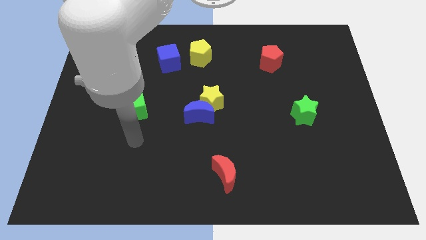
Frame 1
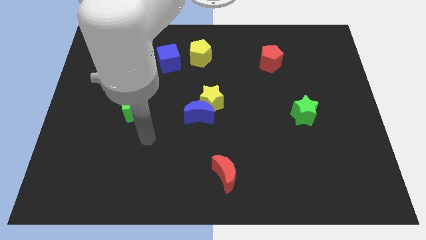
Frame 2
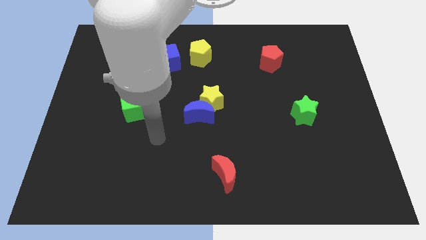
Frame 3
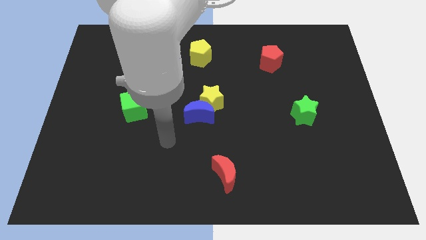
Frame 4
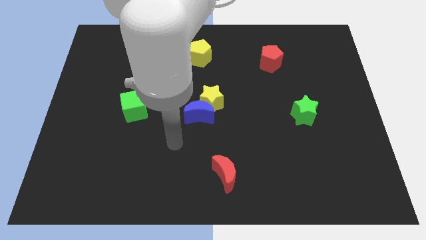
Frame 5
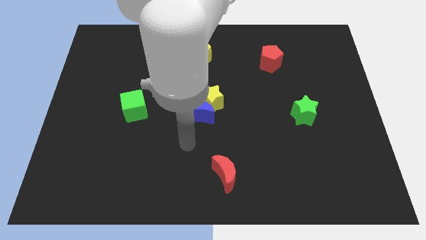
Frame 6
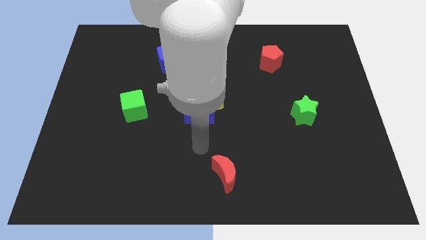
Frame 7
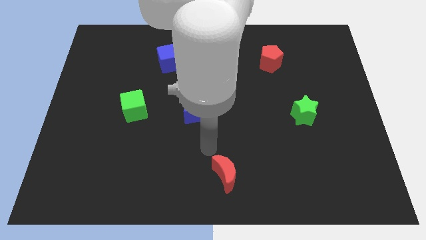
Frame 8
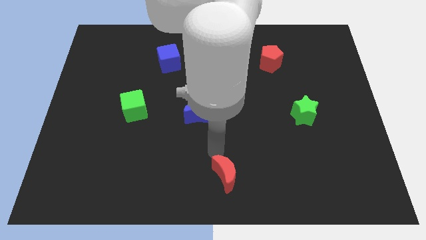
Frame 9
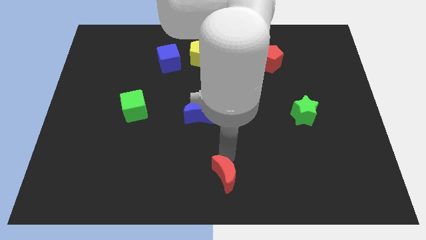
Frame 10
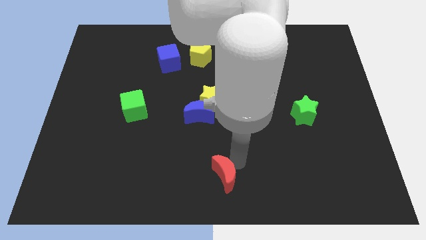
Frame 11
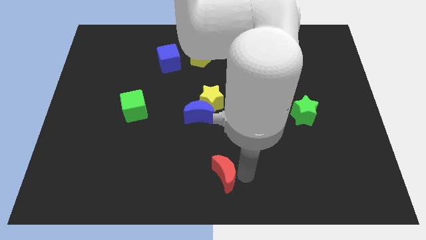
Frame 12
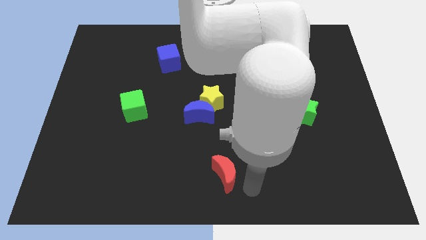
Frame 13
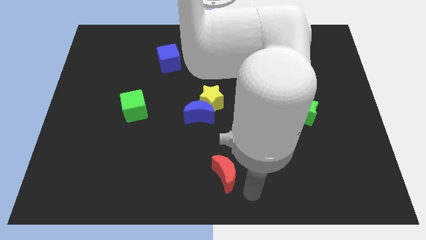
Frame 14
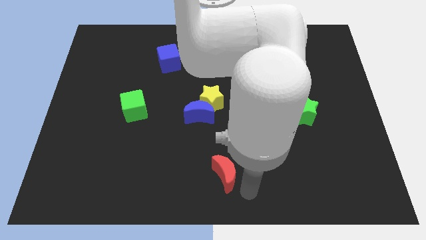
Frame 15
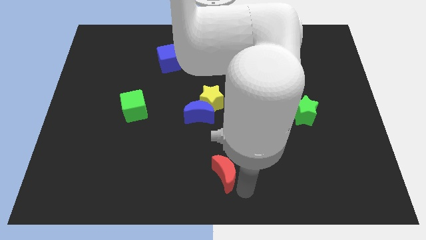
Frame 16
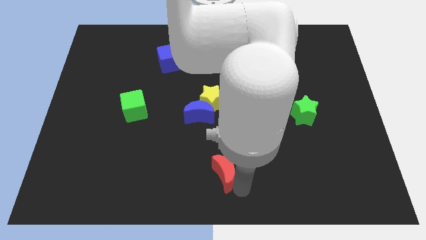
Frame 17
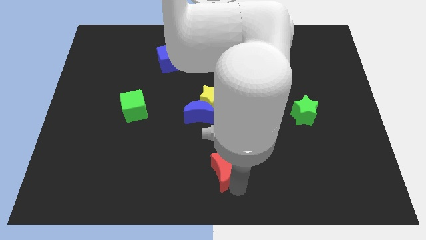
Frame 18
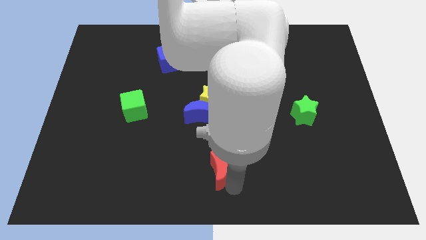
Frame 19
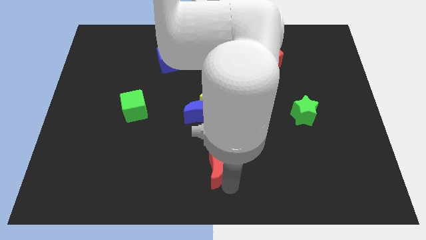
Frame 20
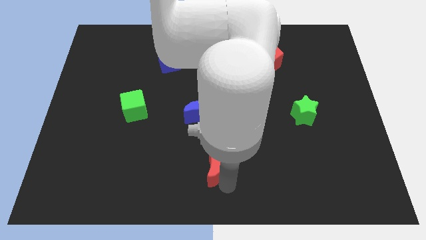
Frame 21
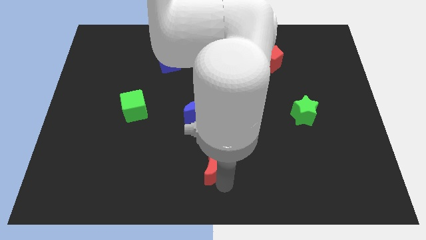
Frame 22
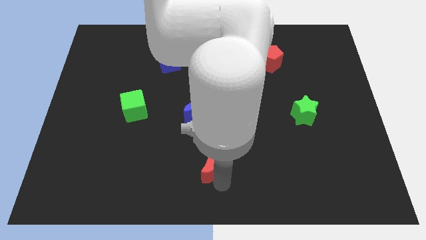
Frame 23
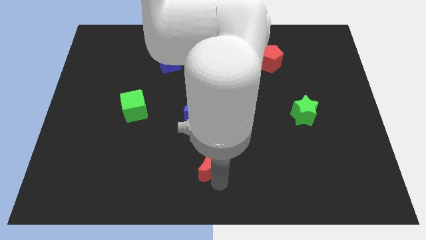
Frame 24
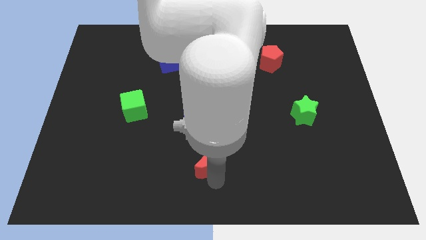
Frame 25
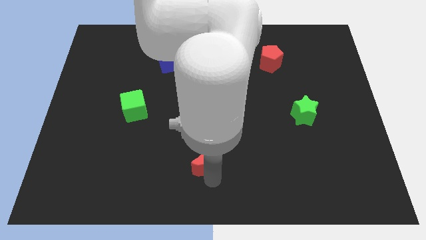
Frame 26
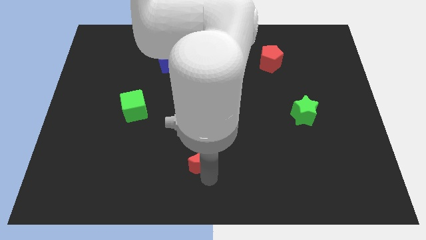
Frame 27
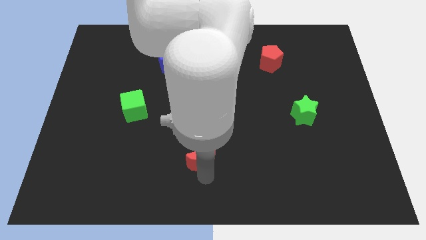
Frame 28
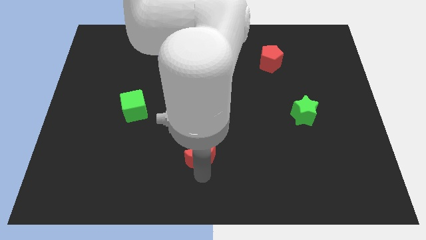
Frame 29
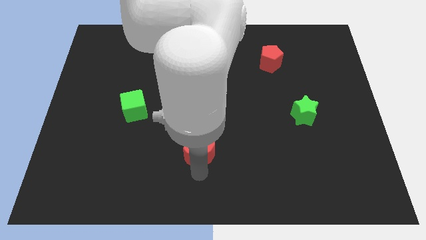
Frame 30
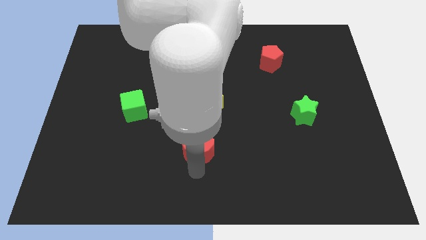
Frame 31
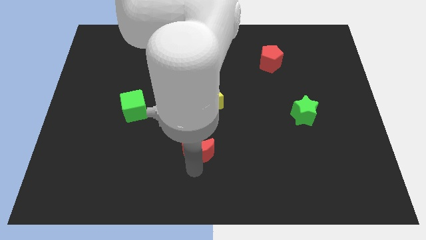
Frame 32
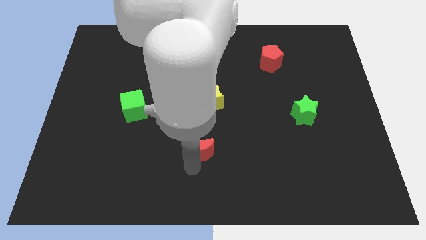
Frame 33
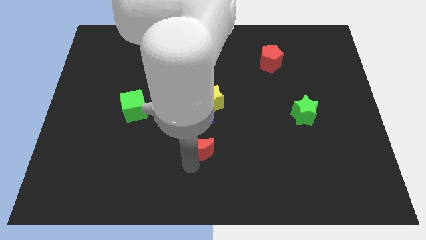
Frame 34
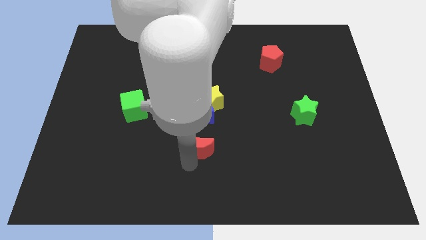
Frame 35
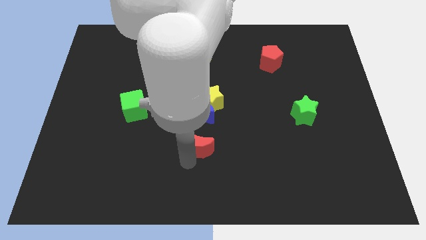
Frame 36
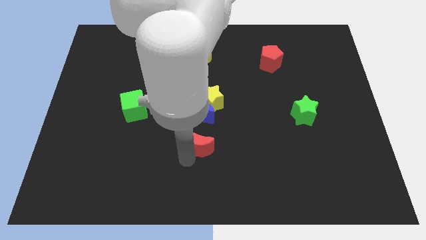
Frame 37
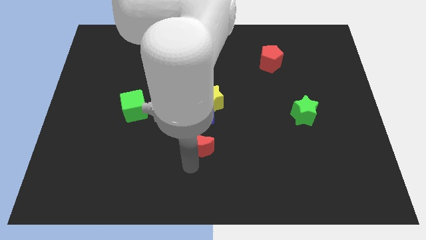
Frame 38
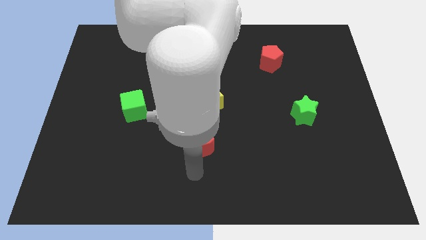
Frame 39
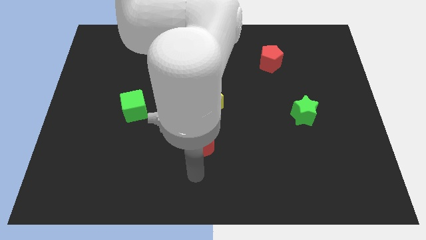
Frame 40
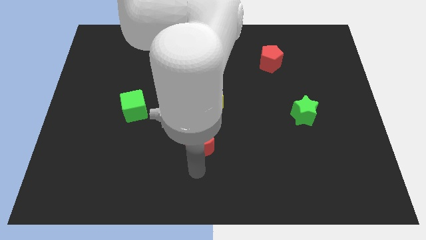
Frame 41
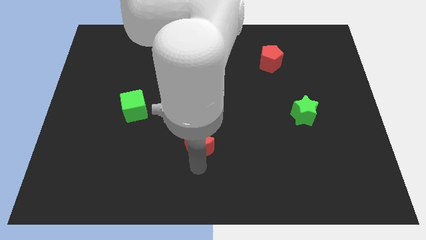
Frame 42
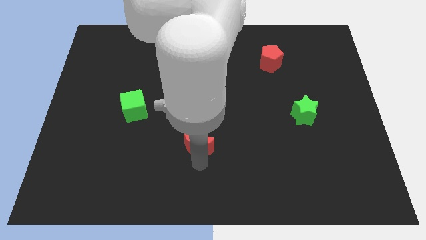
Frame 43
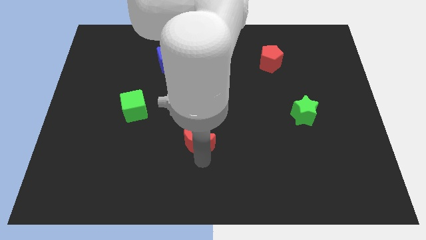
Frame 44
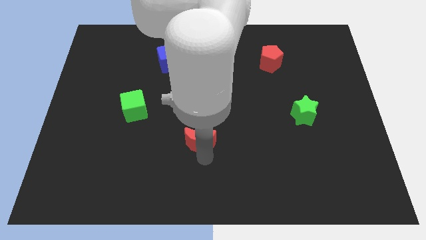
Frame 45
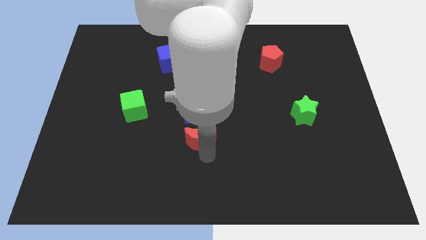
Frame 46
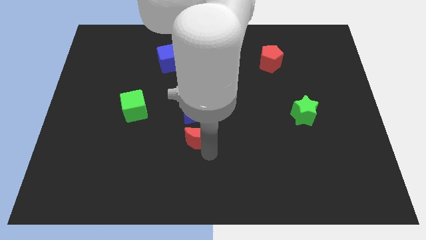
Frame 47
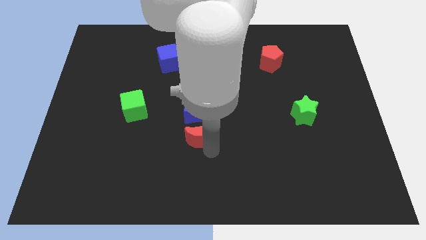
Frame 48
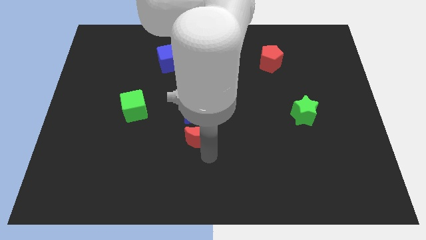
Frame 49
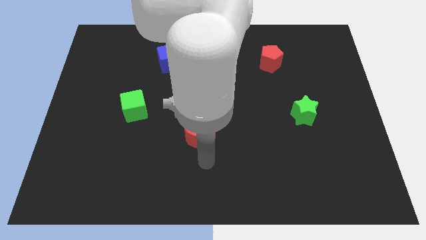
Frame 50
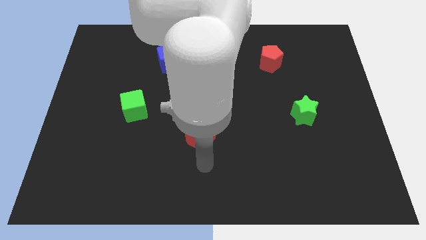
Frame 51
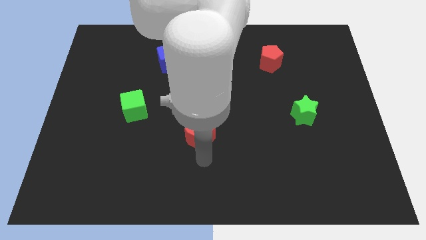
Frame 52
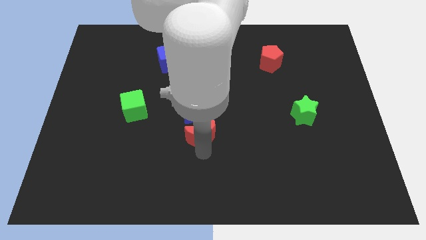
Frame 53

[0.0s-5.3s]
push the red moon next to the blue moon

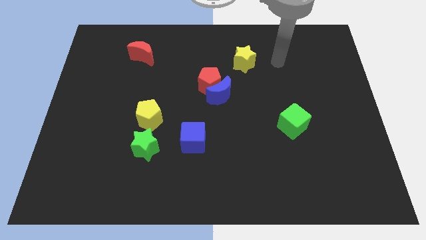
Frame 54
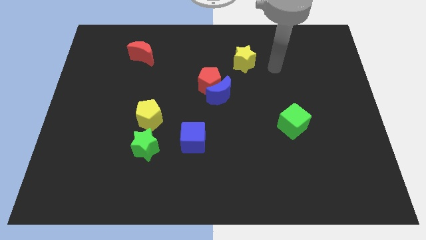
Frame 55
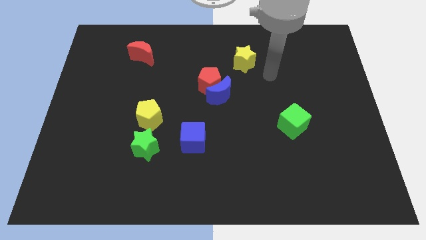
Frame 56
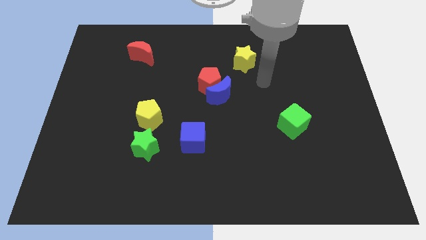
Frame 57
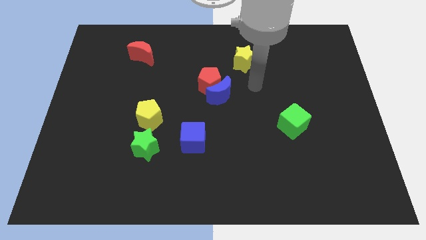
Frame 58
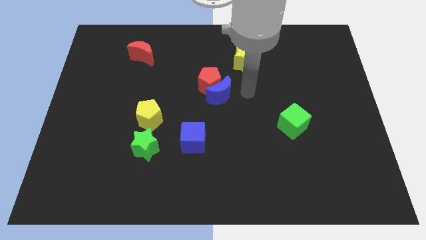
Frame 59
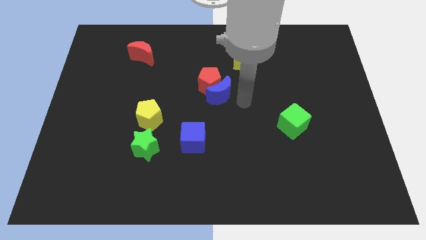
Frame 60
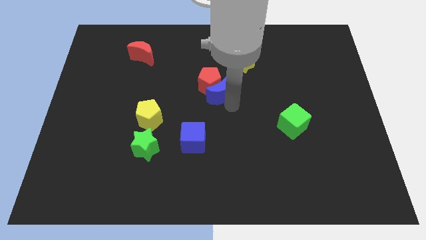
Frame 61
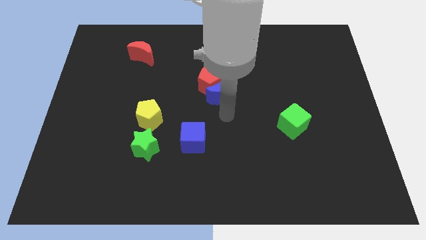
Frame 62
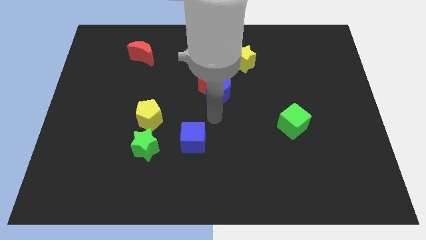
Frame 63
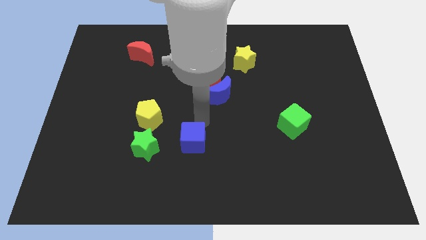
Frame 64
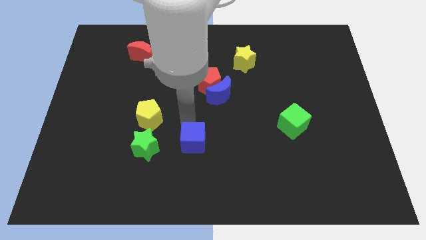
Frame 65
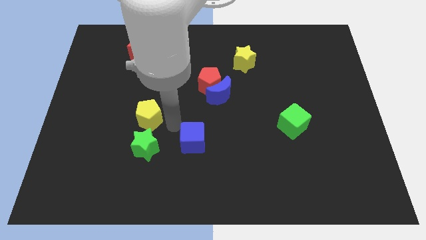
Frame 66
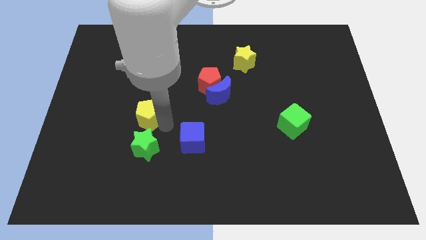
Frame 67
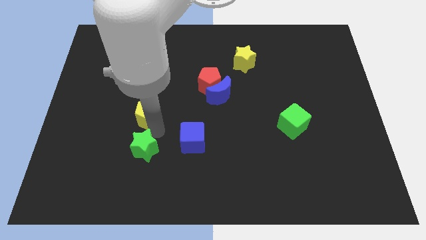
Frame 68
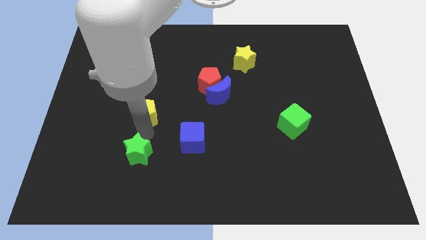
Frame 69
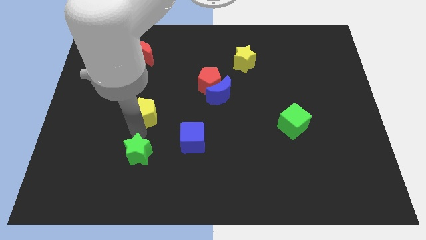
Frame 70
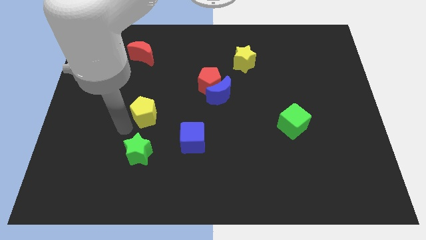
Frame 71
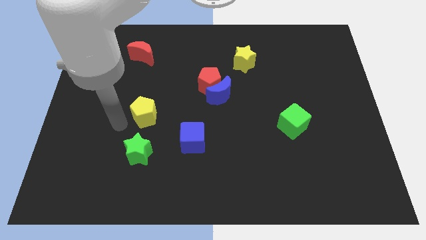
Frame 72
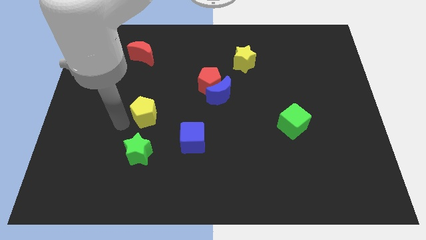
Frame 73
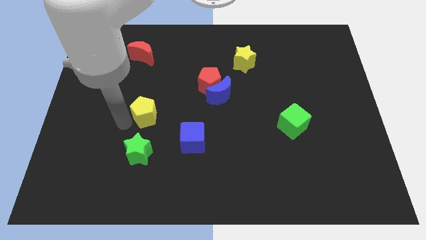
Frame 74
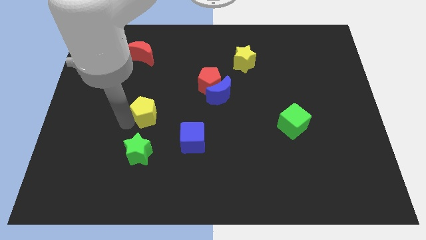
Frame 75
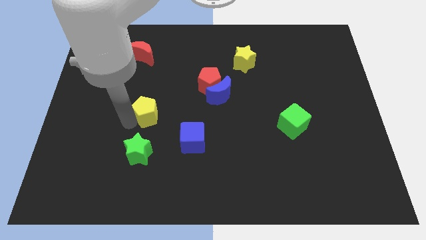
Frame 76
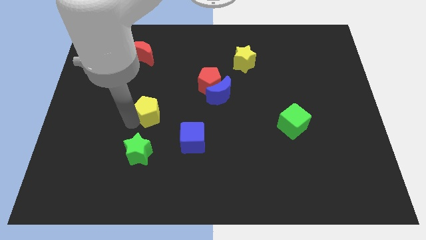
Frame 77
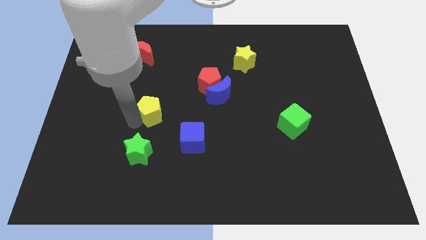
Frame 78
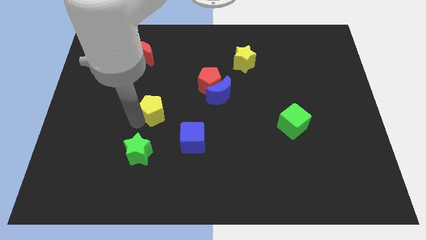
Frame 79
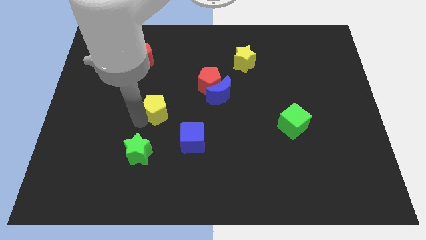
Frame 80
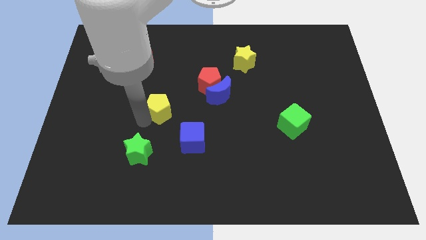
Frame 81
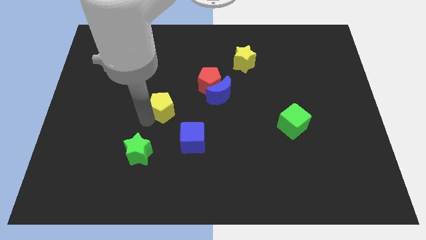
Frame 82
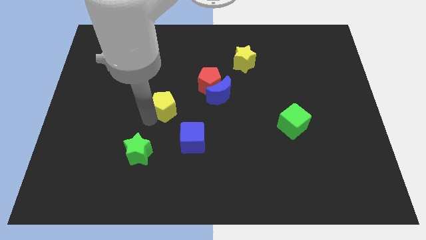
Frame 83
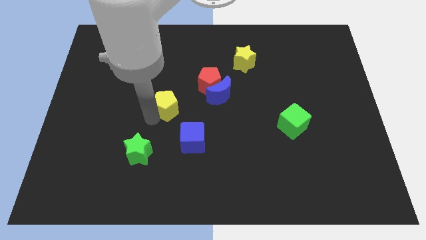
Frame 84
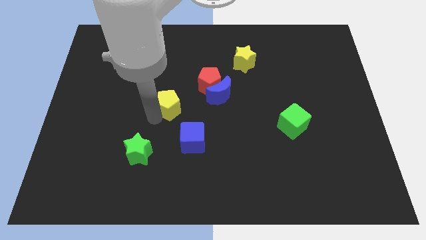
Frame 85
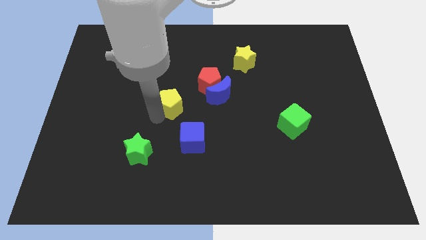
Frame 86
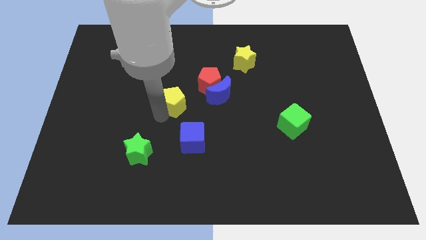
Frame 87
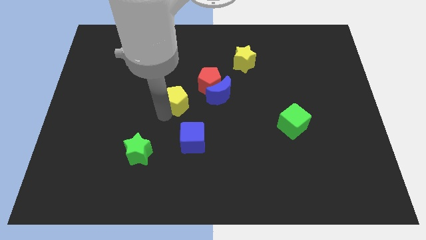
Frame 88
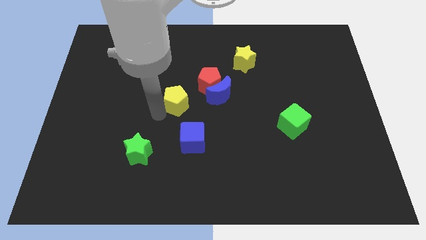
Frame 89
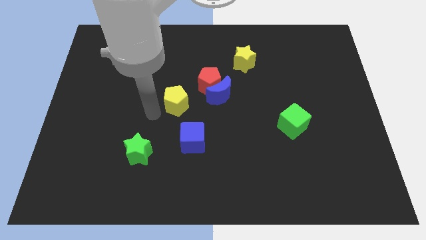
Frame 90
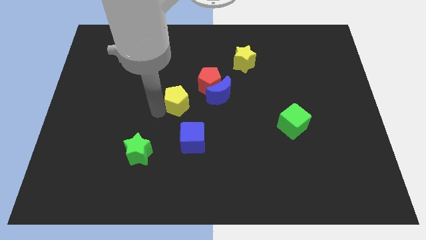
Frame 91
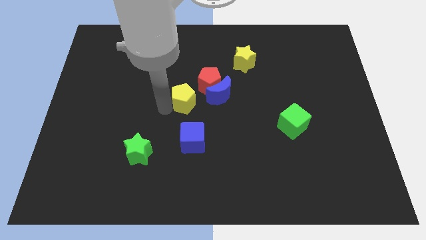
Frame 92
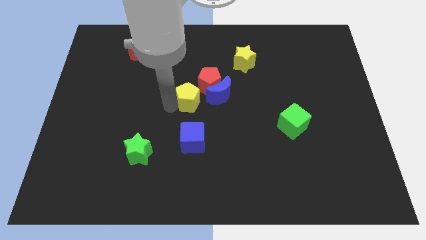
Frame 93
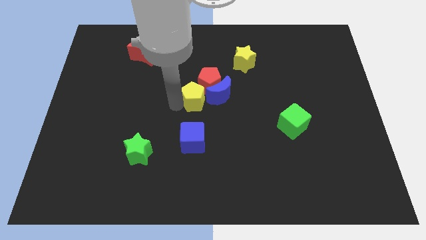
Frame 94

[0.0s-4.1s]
put the yellow pentagon next to the red pentagon
